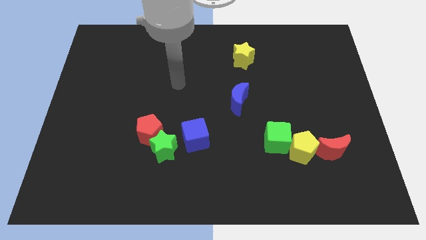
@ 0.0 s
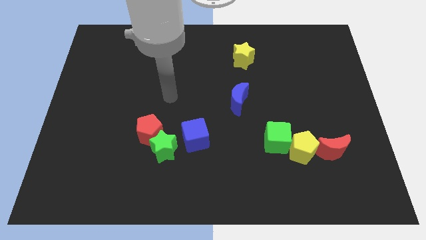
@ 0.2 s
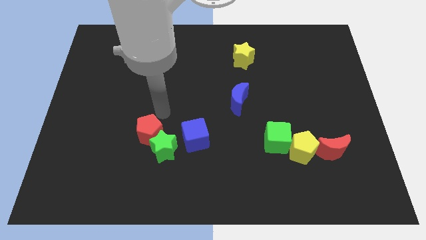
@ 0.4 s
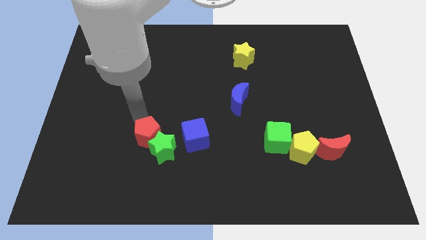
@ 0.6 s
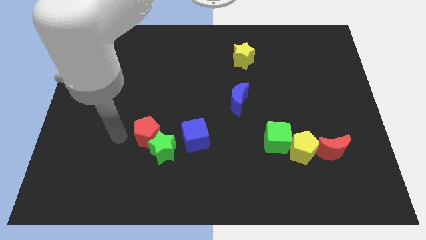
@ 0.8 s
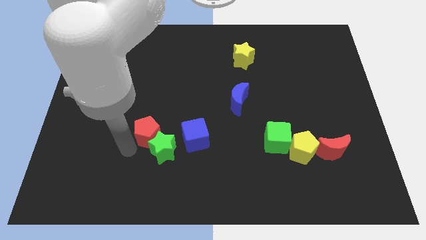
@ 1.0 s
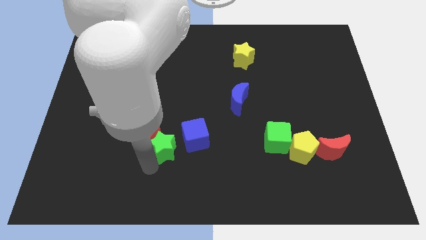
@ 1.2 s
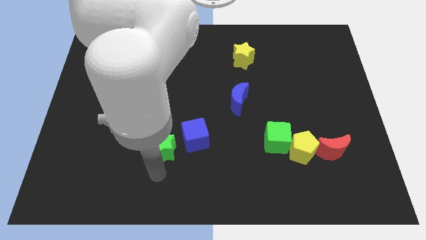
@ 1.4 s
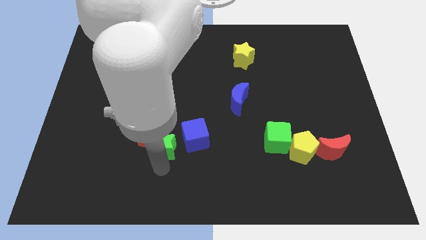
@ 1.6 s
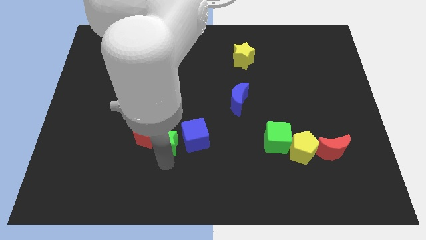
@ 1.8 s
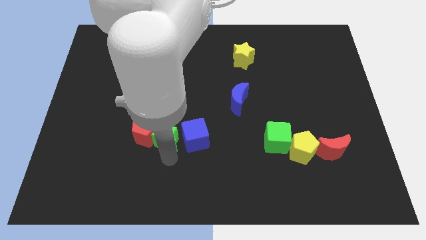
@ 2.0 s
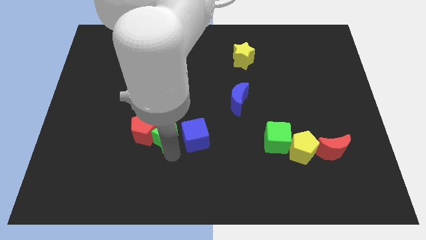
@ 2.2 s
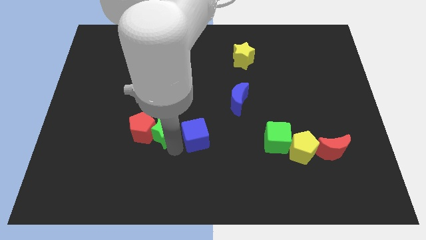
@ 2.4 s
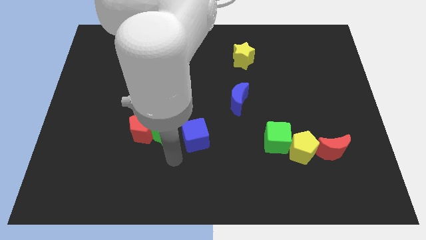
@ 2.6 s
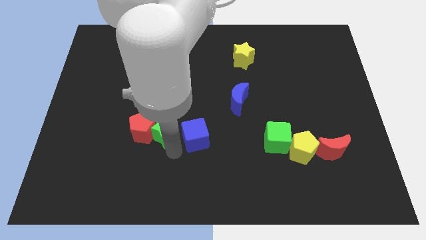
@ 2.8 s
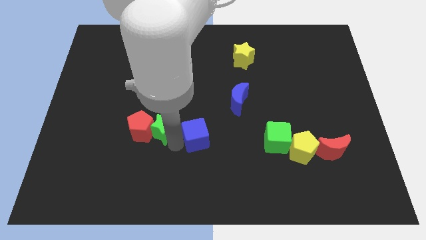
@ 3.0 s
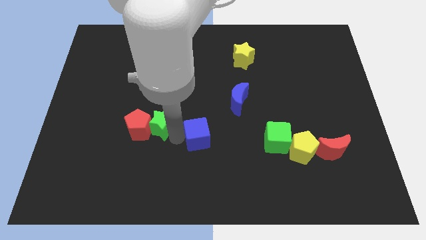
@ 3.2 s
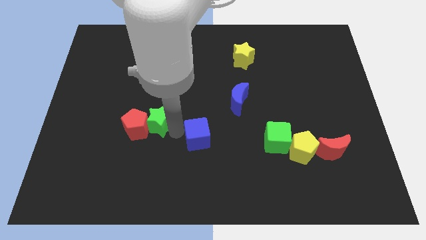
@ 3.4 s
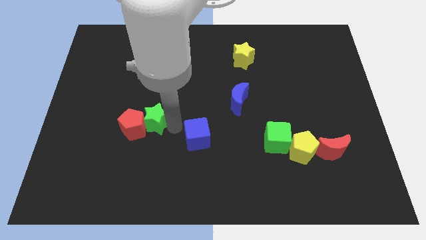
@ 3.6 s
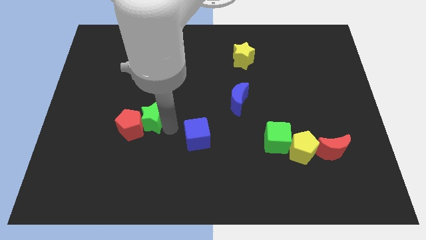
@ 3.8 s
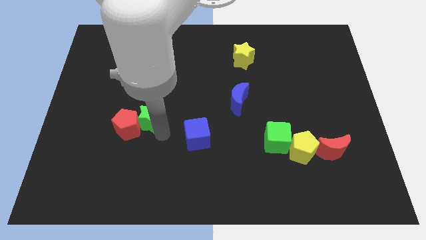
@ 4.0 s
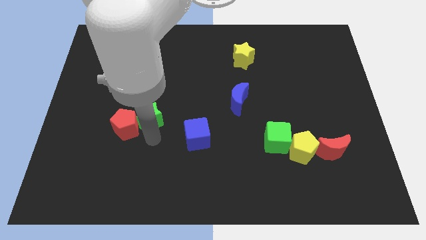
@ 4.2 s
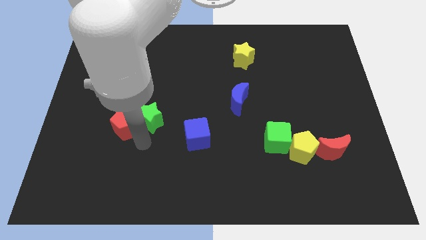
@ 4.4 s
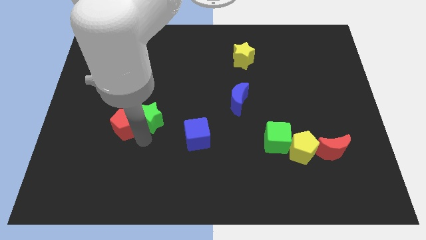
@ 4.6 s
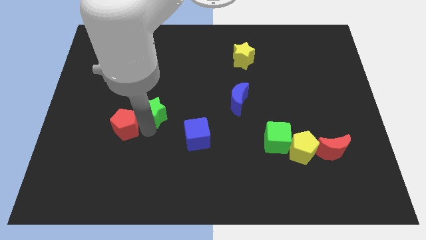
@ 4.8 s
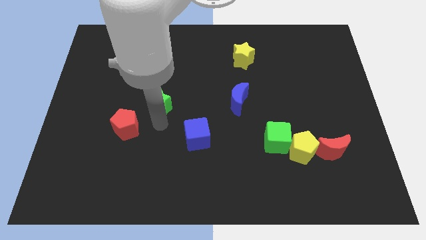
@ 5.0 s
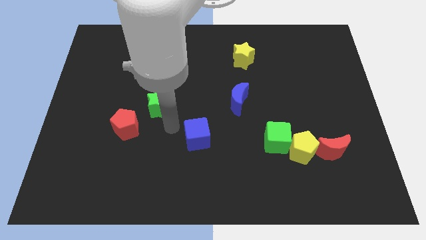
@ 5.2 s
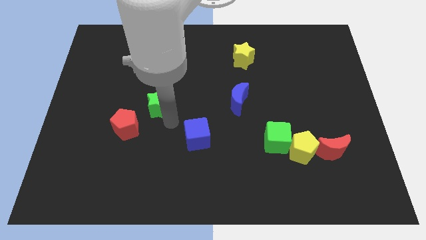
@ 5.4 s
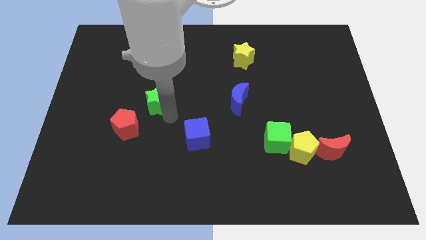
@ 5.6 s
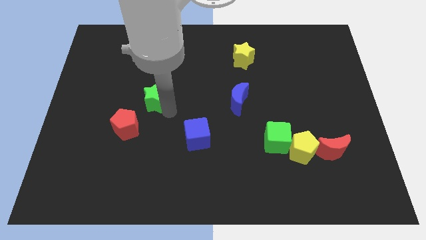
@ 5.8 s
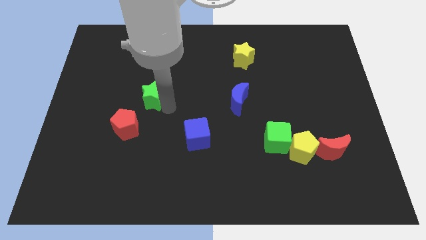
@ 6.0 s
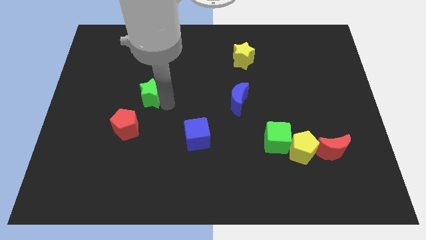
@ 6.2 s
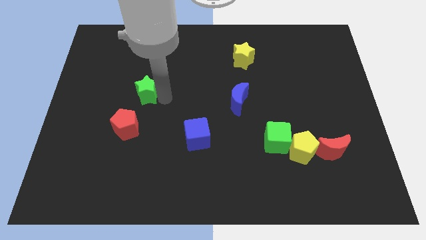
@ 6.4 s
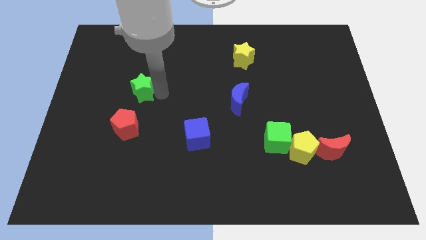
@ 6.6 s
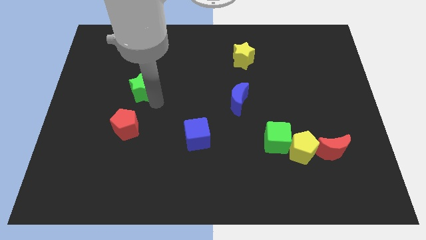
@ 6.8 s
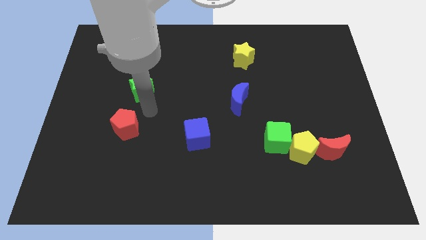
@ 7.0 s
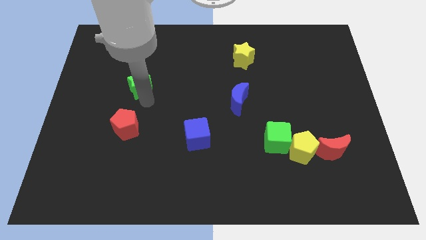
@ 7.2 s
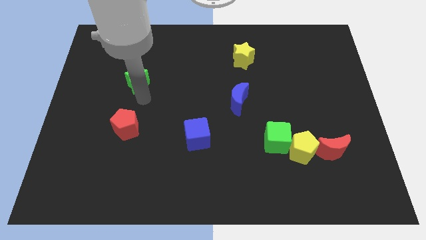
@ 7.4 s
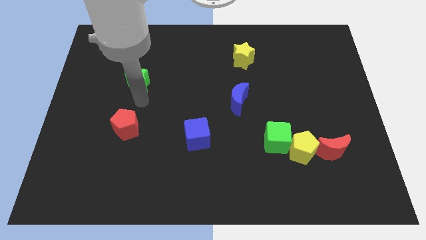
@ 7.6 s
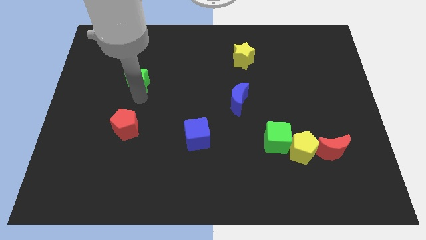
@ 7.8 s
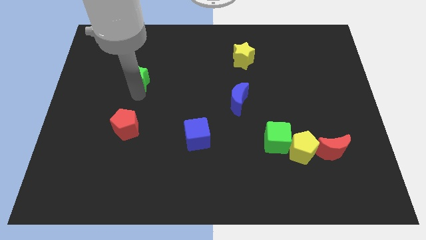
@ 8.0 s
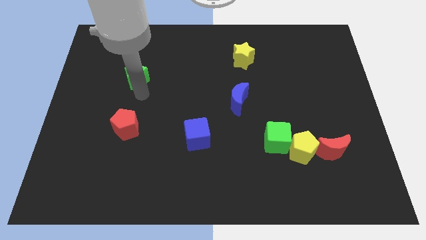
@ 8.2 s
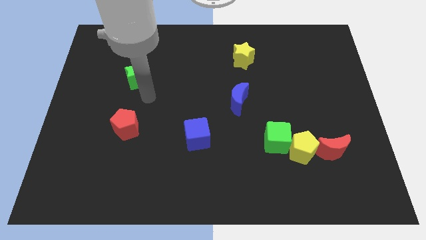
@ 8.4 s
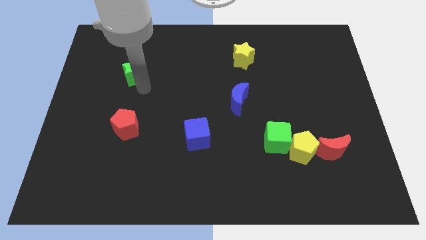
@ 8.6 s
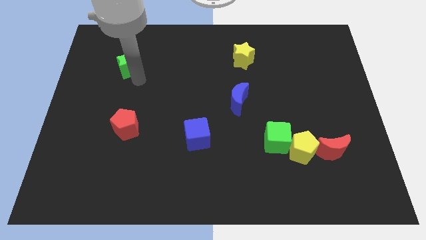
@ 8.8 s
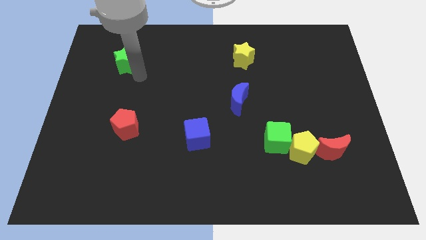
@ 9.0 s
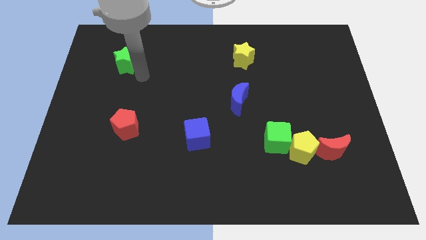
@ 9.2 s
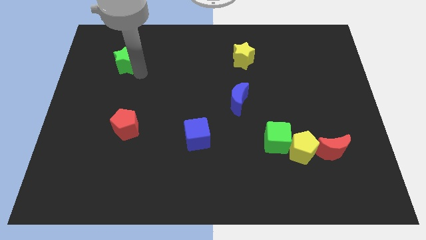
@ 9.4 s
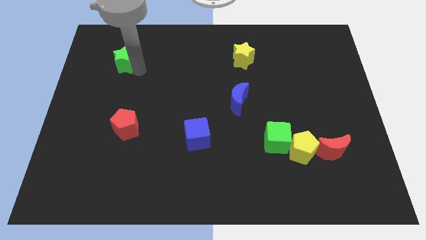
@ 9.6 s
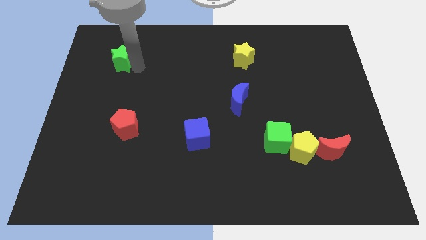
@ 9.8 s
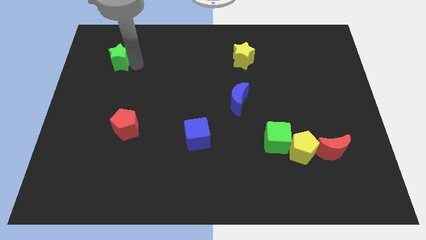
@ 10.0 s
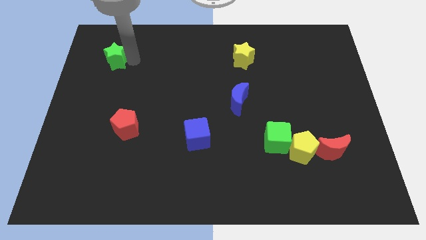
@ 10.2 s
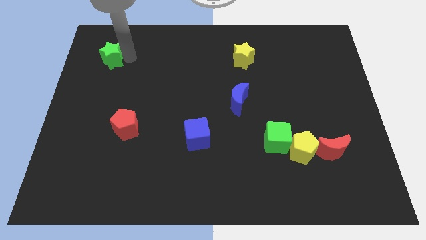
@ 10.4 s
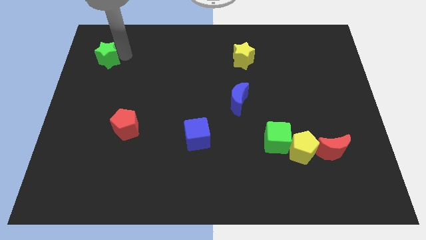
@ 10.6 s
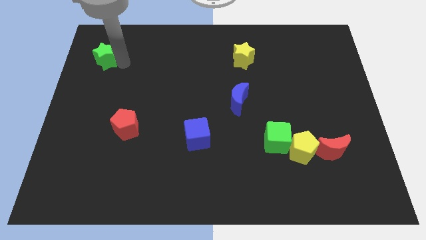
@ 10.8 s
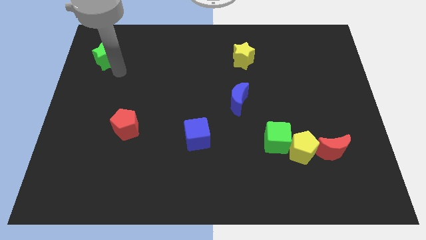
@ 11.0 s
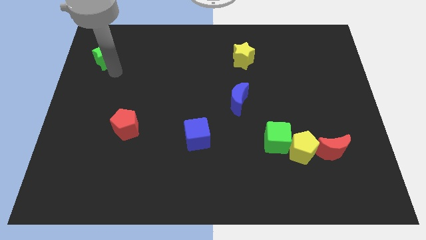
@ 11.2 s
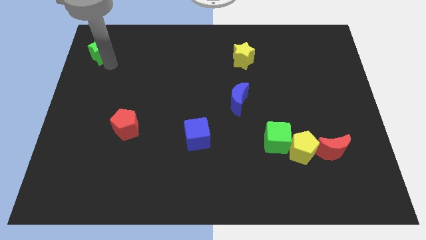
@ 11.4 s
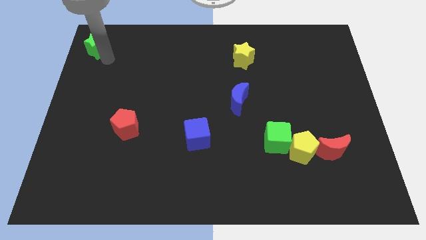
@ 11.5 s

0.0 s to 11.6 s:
push the green star to the top left

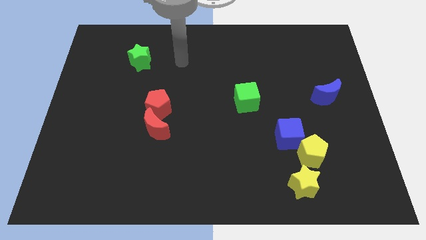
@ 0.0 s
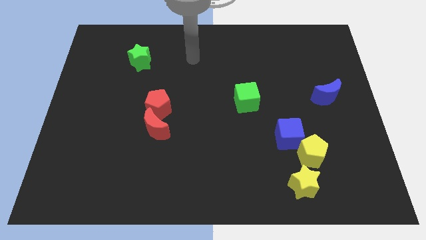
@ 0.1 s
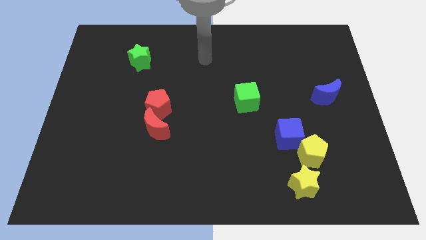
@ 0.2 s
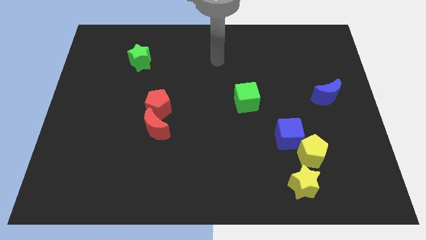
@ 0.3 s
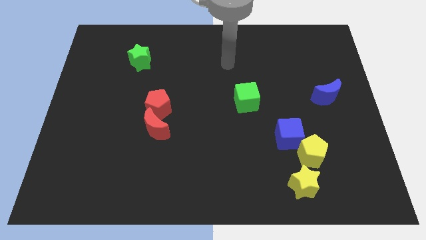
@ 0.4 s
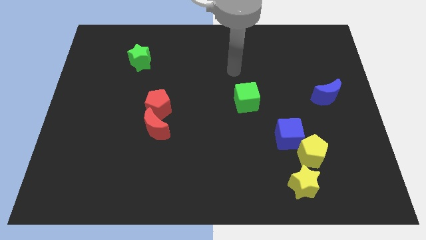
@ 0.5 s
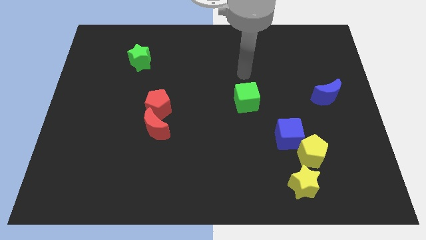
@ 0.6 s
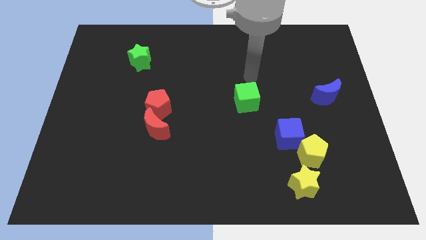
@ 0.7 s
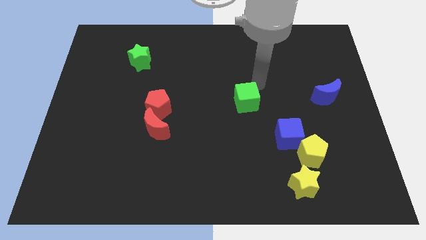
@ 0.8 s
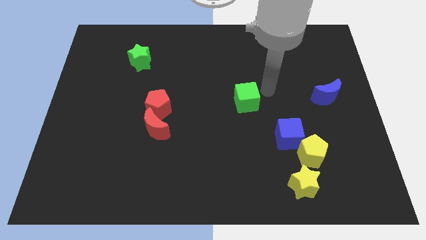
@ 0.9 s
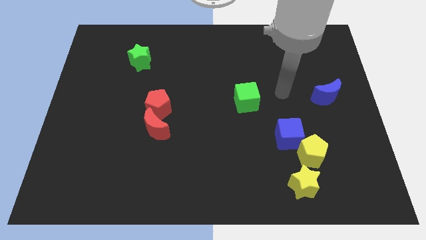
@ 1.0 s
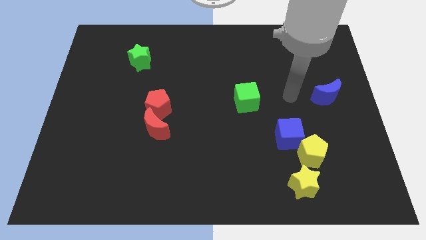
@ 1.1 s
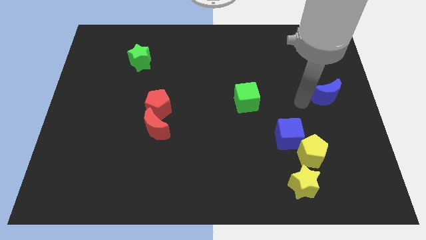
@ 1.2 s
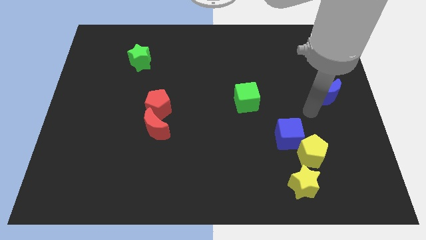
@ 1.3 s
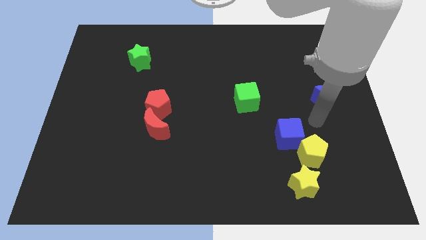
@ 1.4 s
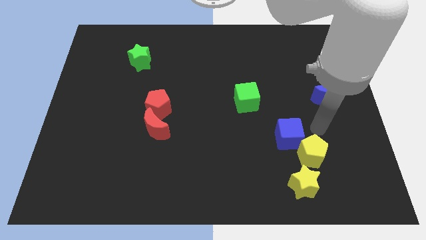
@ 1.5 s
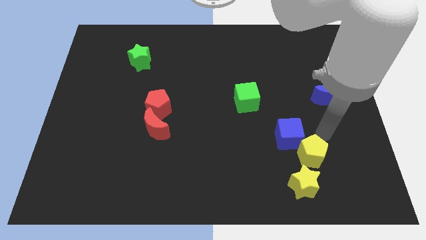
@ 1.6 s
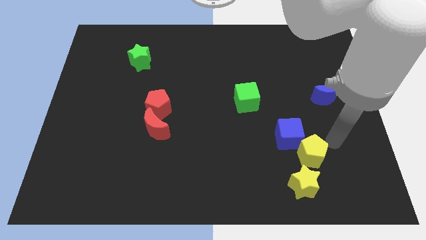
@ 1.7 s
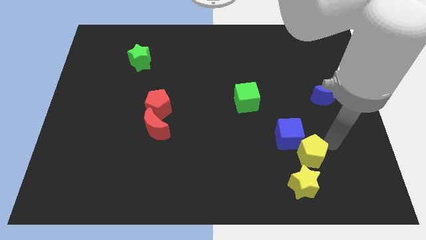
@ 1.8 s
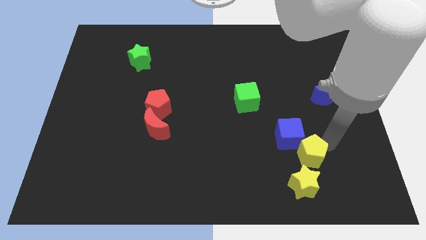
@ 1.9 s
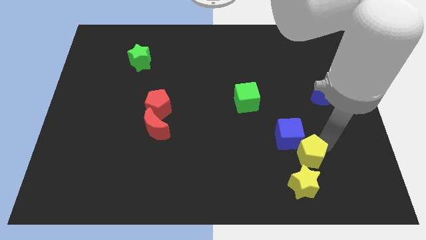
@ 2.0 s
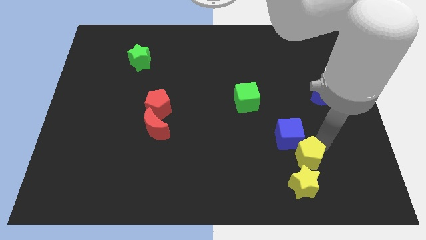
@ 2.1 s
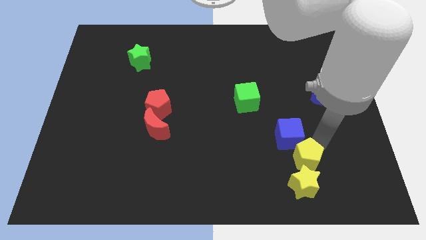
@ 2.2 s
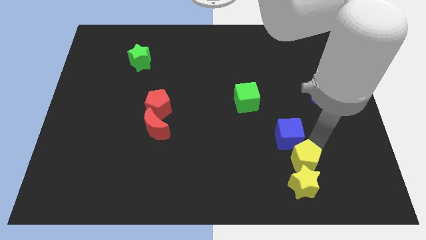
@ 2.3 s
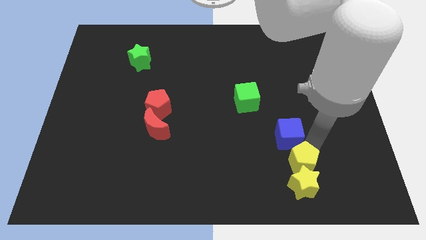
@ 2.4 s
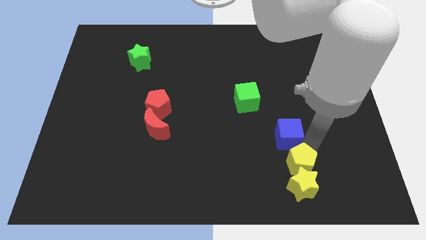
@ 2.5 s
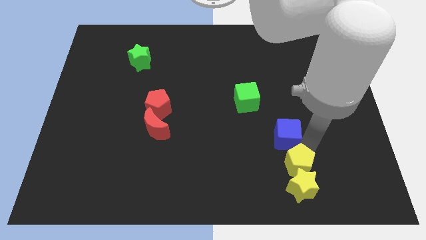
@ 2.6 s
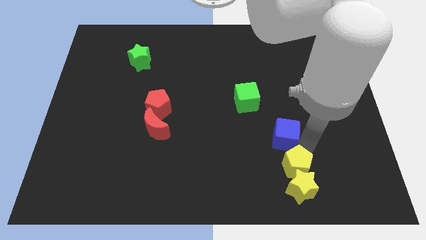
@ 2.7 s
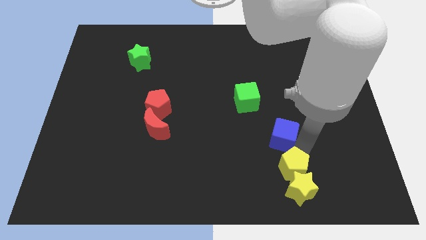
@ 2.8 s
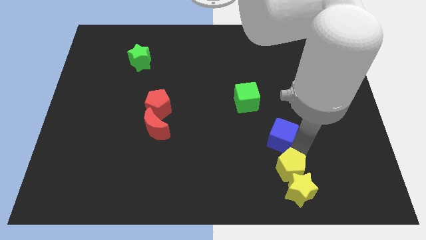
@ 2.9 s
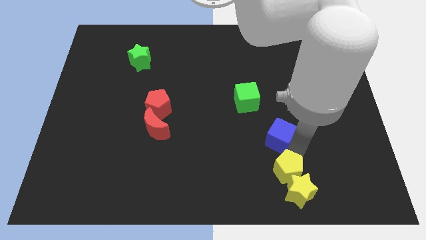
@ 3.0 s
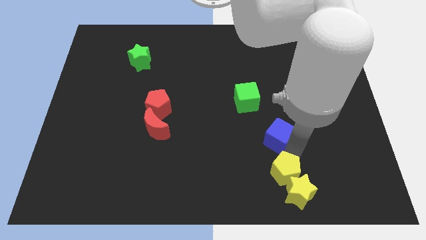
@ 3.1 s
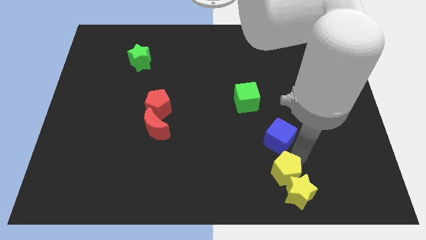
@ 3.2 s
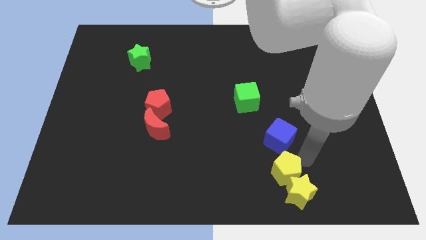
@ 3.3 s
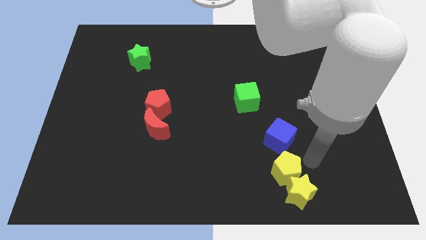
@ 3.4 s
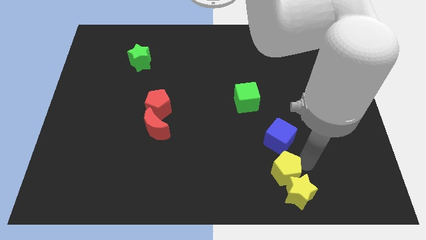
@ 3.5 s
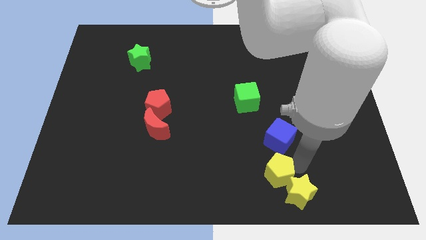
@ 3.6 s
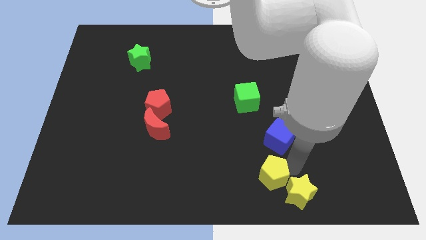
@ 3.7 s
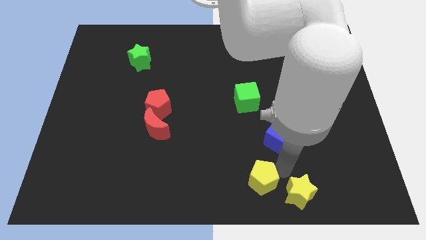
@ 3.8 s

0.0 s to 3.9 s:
push the yellow pentagon to the bottom side
